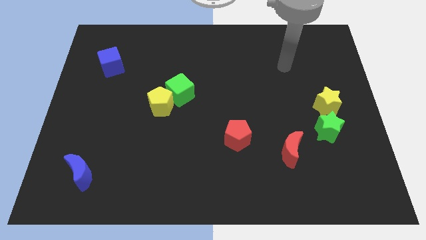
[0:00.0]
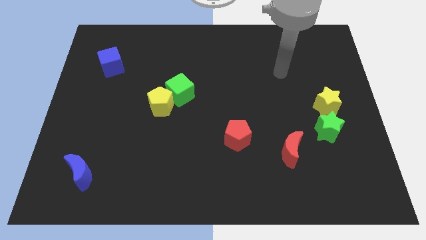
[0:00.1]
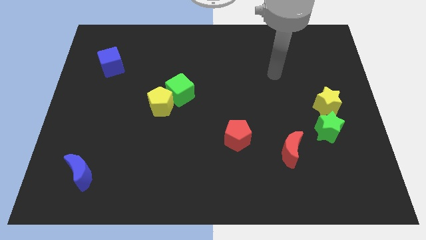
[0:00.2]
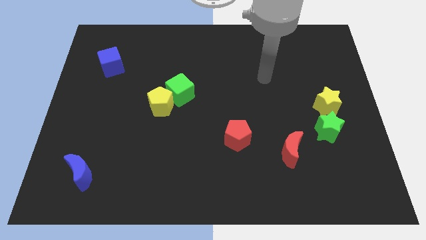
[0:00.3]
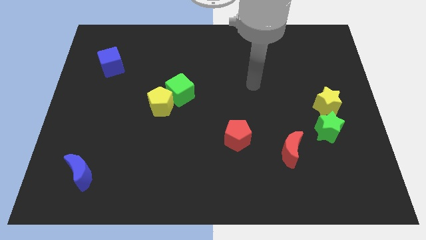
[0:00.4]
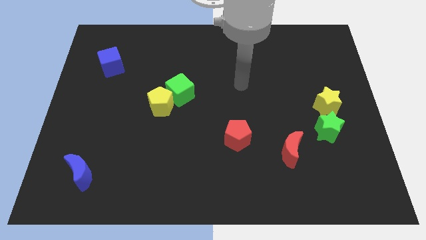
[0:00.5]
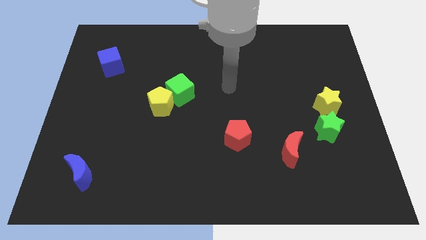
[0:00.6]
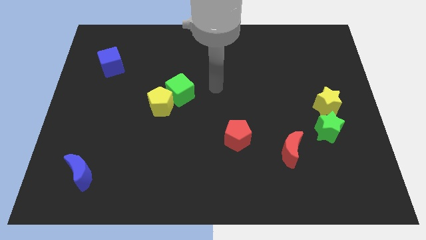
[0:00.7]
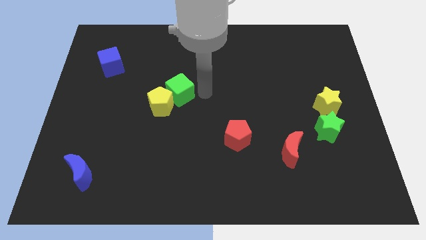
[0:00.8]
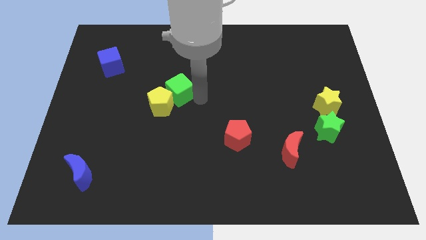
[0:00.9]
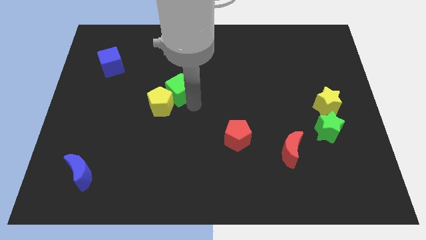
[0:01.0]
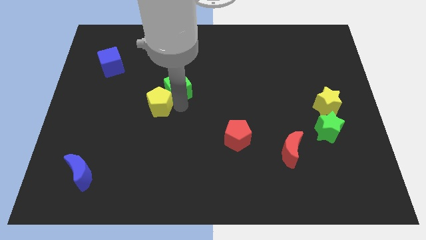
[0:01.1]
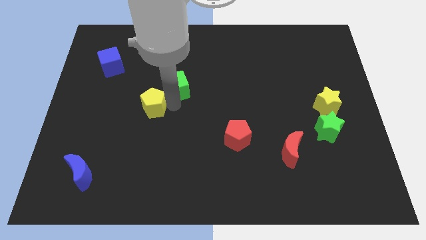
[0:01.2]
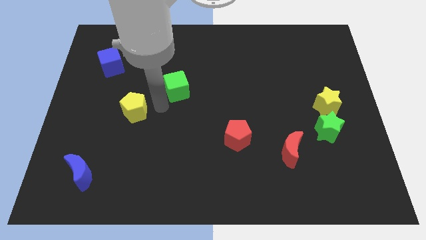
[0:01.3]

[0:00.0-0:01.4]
pull the green cube apart from the yellow pentagon

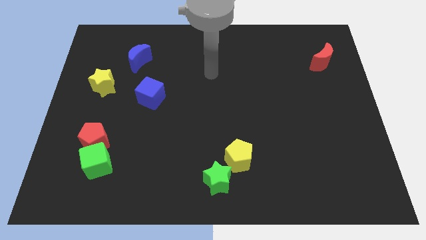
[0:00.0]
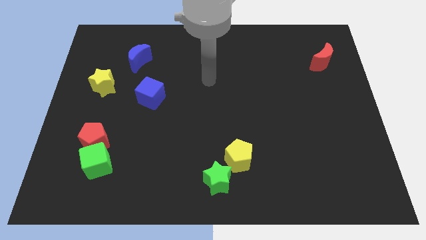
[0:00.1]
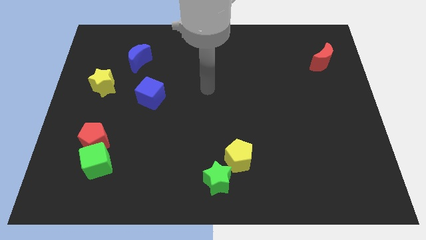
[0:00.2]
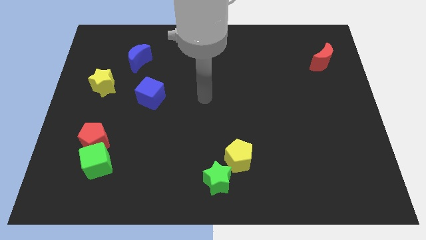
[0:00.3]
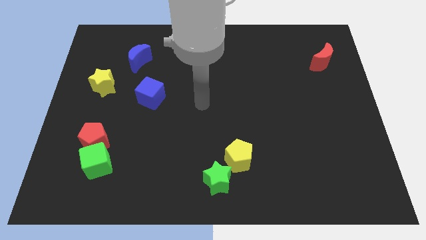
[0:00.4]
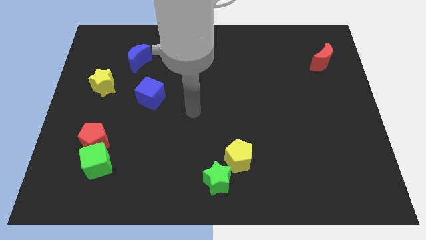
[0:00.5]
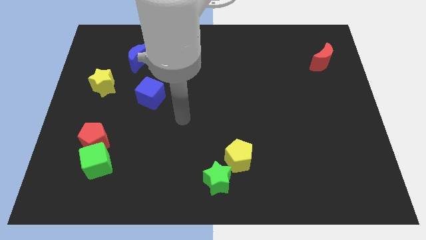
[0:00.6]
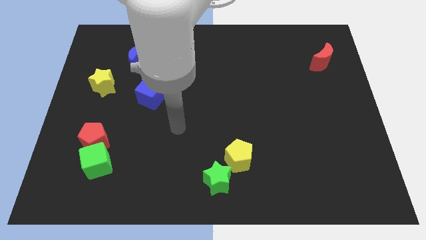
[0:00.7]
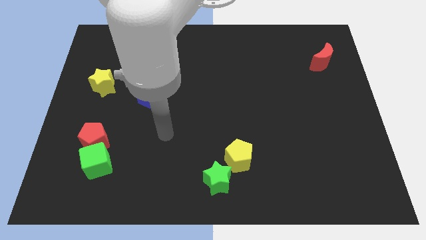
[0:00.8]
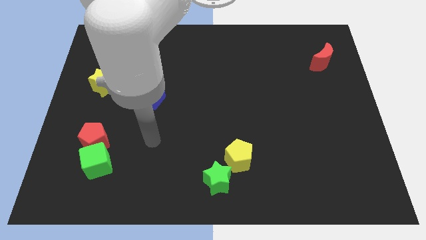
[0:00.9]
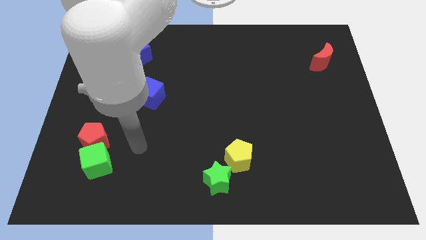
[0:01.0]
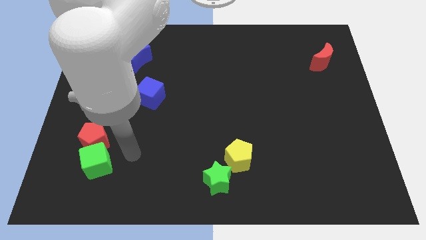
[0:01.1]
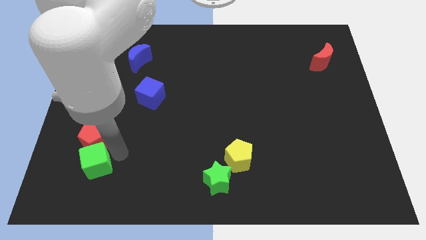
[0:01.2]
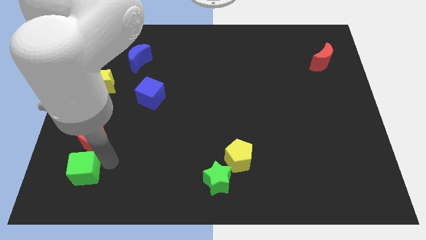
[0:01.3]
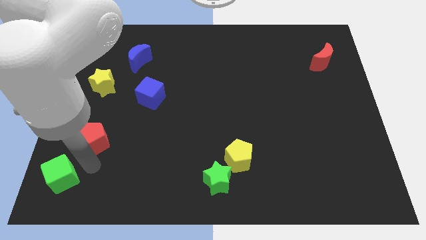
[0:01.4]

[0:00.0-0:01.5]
separate the red pentagon from the green cube

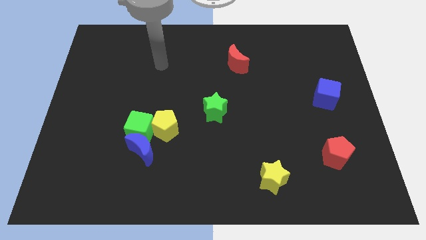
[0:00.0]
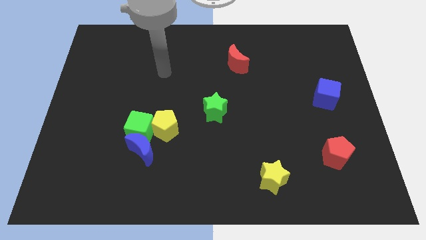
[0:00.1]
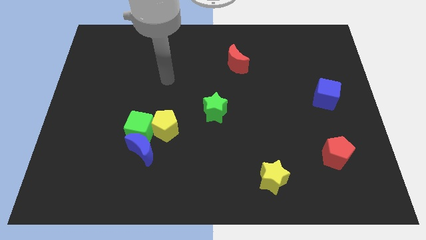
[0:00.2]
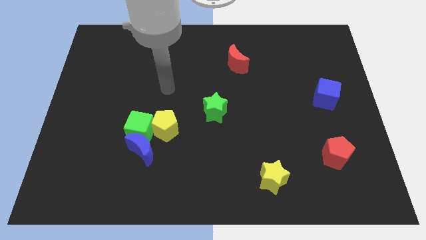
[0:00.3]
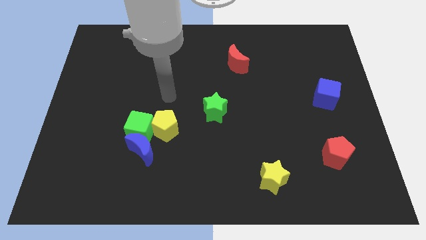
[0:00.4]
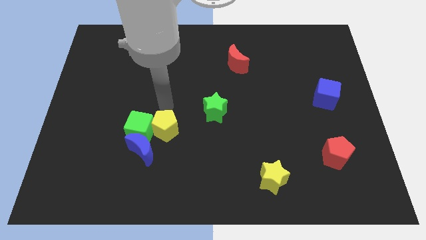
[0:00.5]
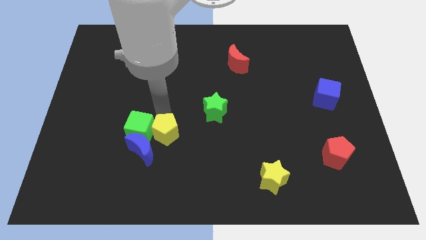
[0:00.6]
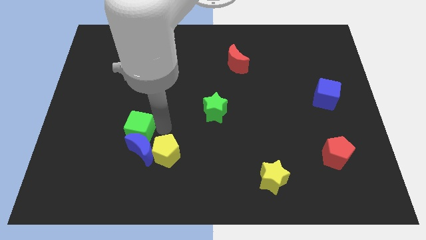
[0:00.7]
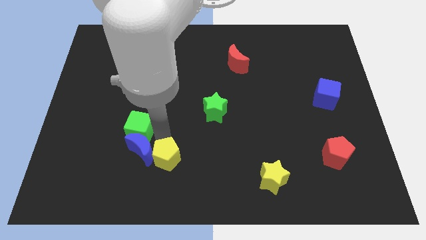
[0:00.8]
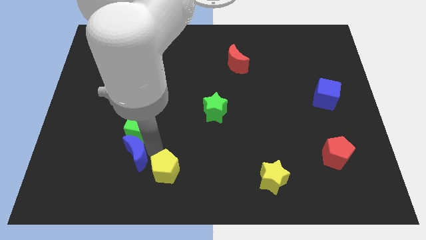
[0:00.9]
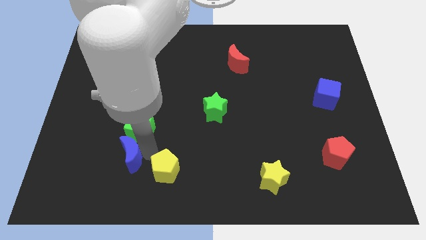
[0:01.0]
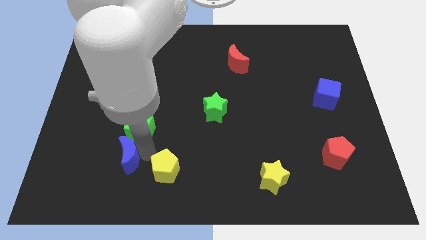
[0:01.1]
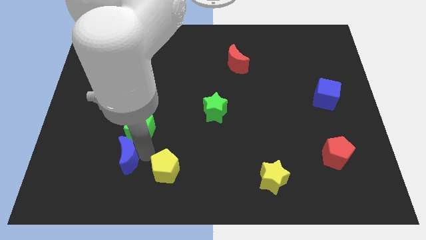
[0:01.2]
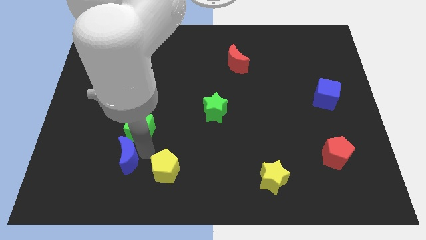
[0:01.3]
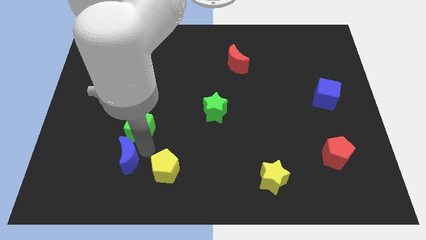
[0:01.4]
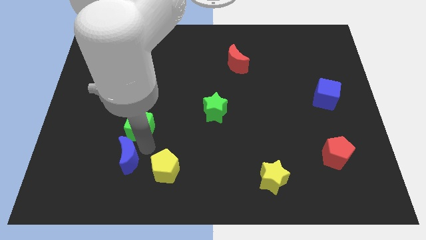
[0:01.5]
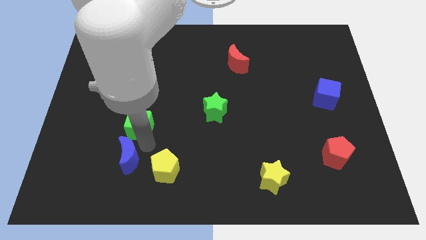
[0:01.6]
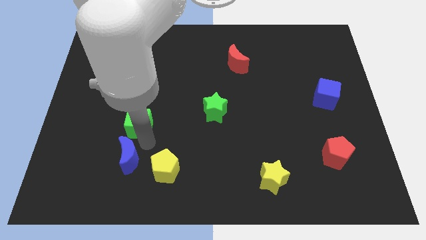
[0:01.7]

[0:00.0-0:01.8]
pull the green cube apart from the blue moon and yellow pentagon

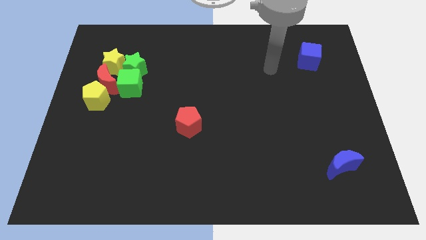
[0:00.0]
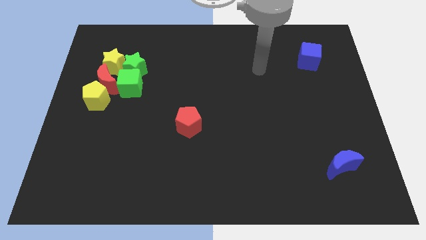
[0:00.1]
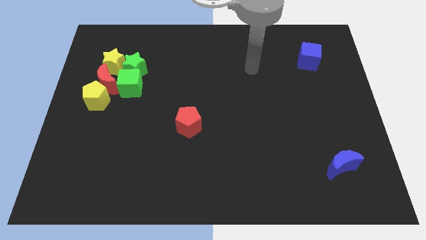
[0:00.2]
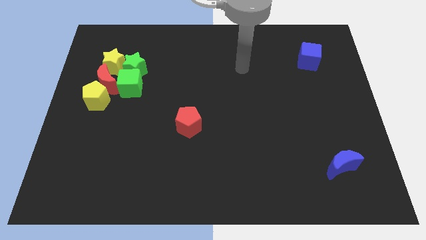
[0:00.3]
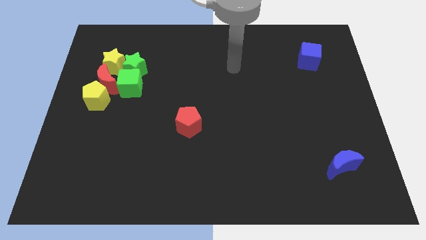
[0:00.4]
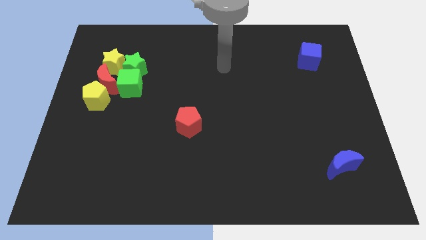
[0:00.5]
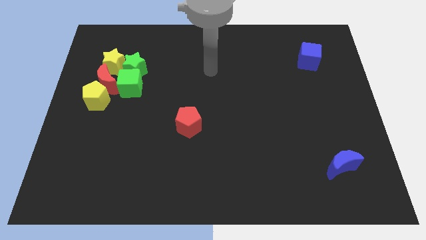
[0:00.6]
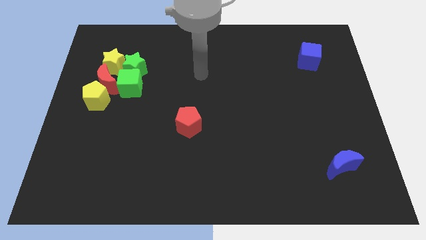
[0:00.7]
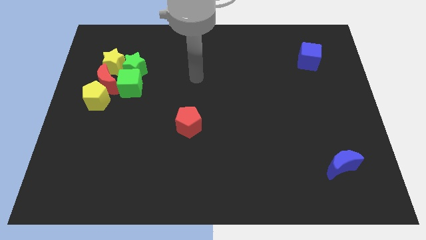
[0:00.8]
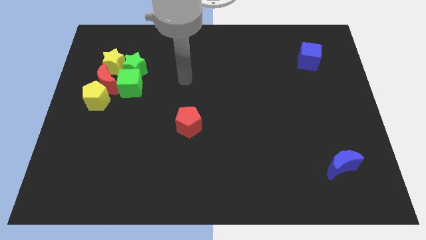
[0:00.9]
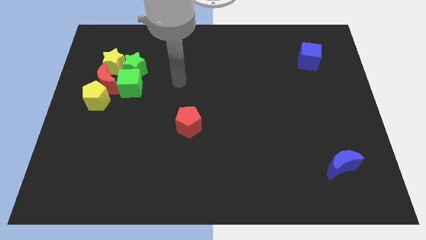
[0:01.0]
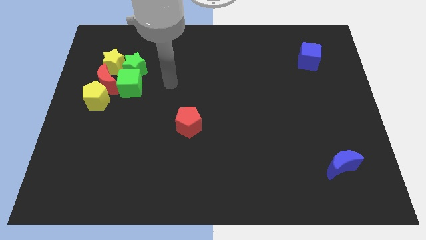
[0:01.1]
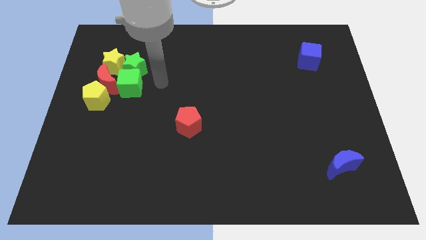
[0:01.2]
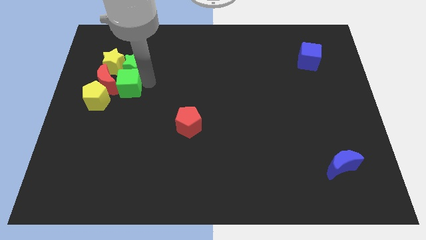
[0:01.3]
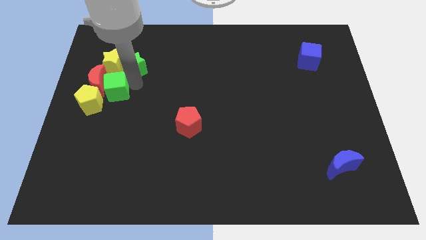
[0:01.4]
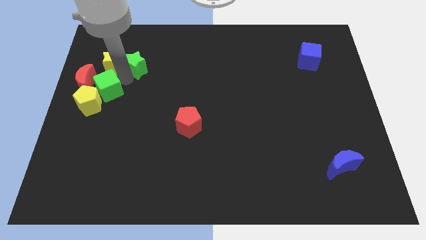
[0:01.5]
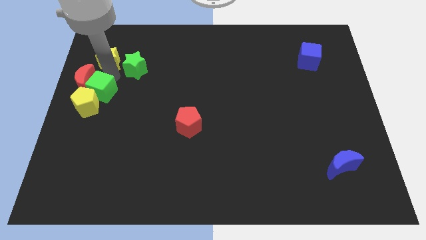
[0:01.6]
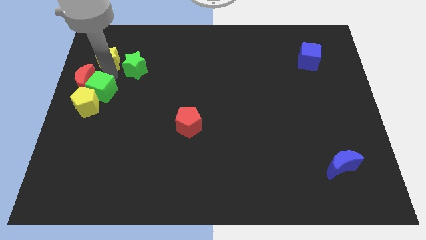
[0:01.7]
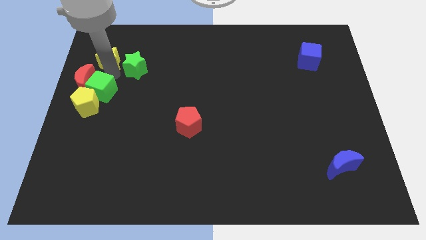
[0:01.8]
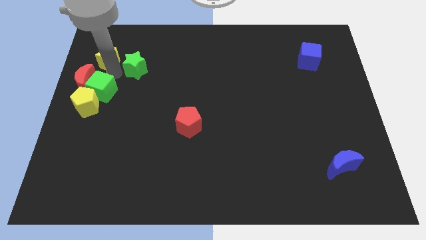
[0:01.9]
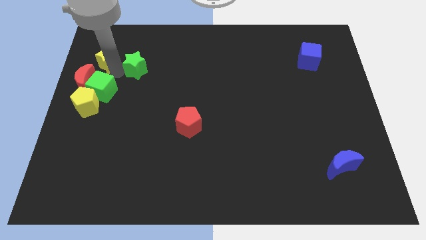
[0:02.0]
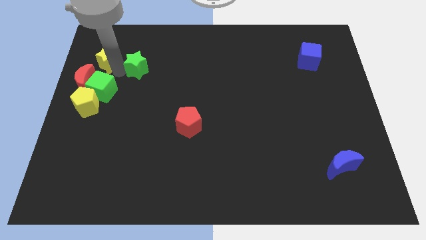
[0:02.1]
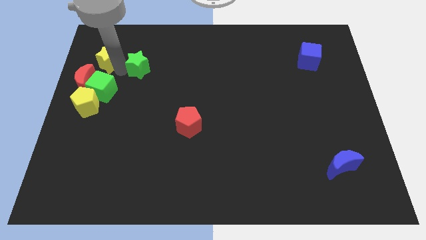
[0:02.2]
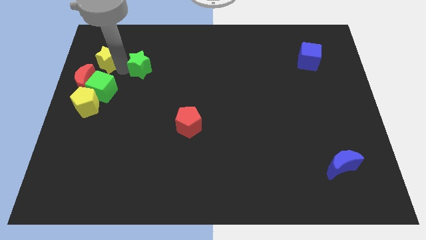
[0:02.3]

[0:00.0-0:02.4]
pull the green star apart from the yellow star, green cube, and red moon

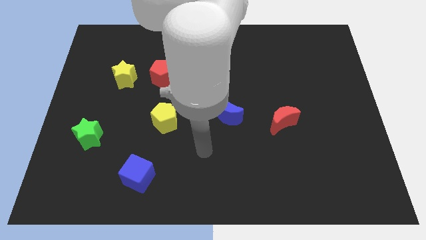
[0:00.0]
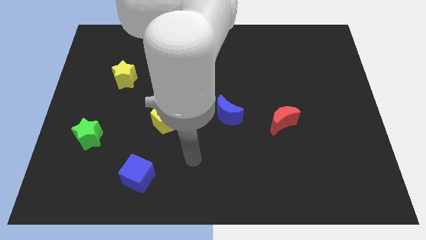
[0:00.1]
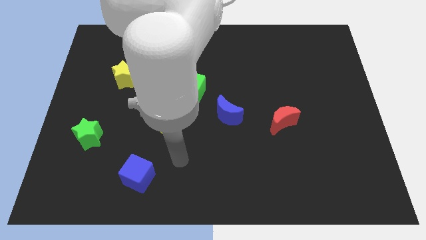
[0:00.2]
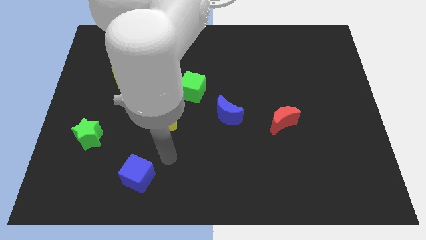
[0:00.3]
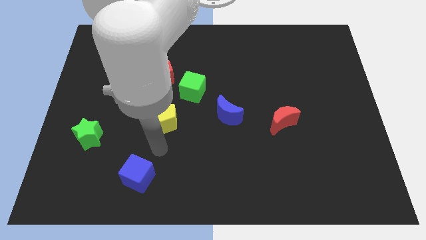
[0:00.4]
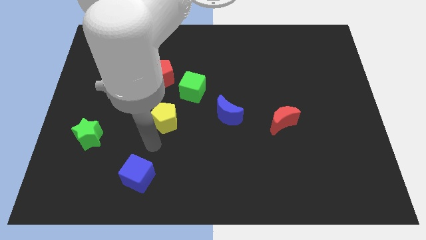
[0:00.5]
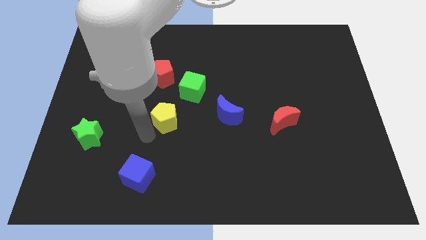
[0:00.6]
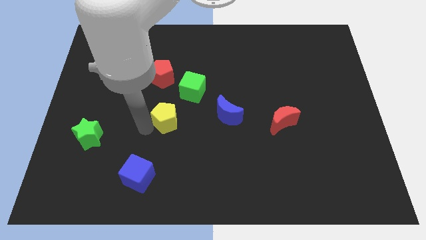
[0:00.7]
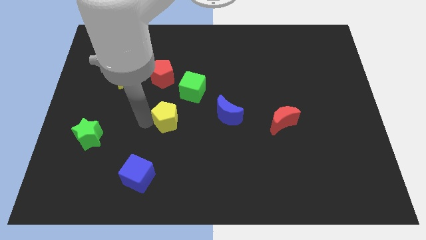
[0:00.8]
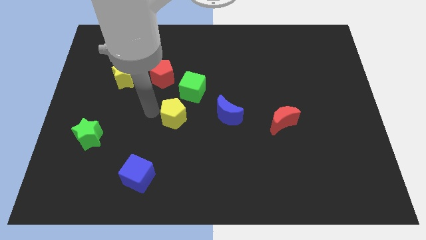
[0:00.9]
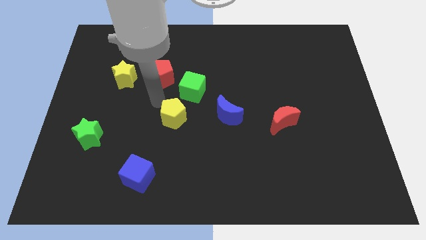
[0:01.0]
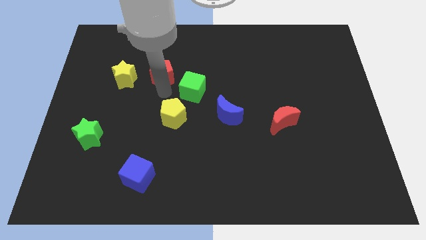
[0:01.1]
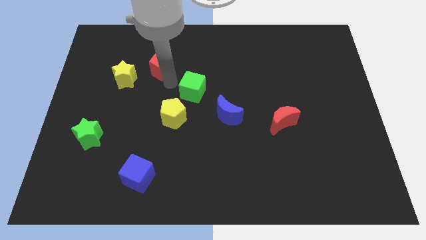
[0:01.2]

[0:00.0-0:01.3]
move the green cube away from the red pentagon

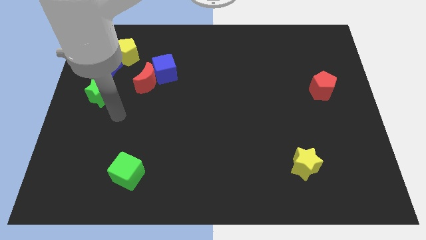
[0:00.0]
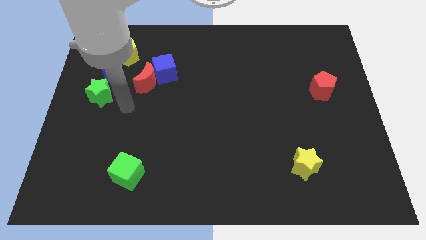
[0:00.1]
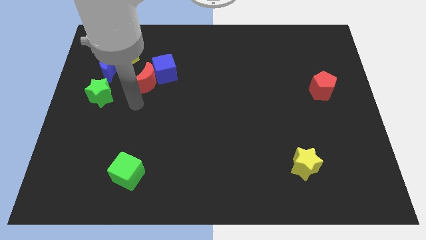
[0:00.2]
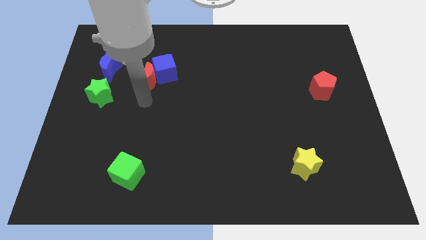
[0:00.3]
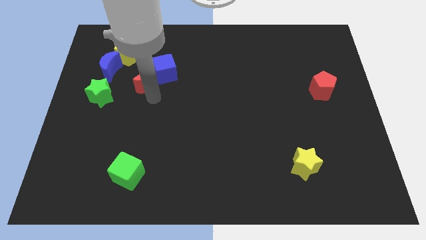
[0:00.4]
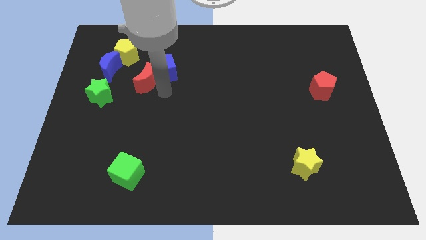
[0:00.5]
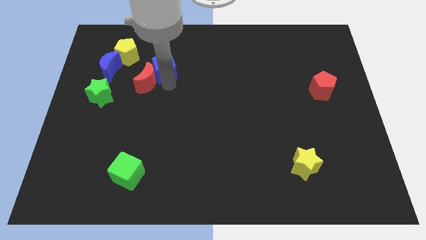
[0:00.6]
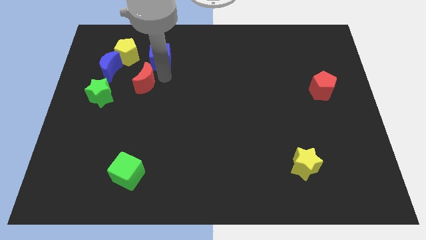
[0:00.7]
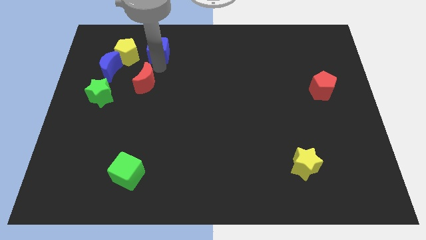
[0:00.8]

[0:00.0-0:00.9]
pull the red moon apart from the blue cube
